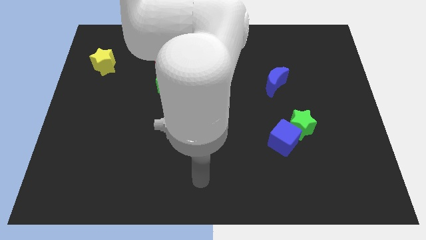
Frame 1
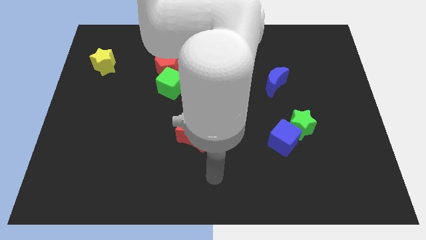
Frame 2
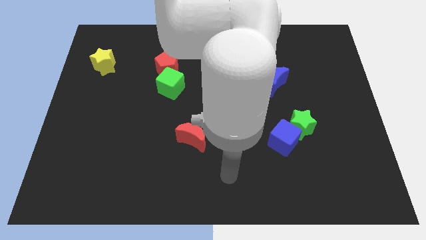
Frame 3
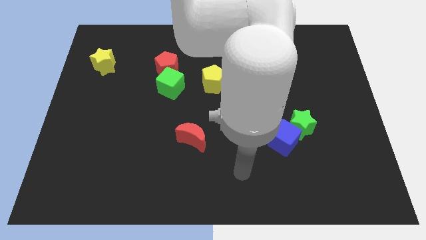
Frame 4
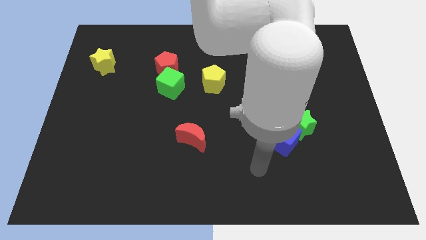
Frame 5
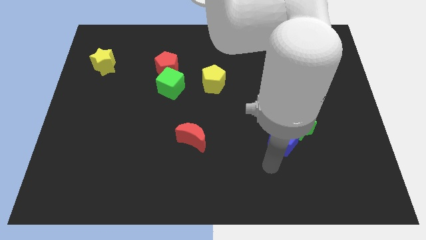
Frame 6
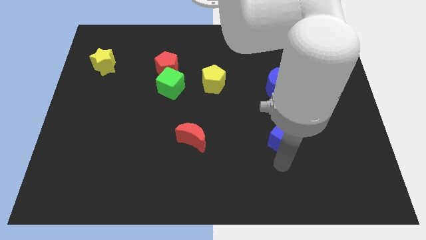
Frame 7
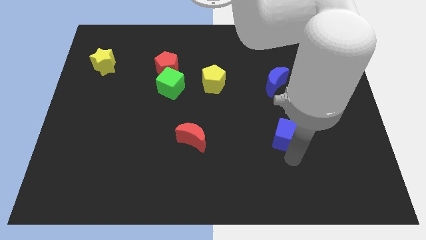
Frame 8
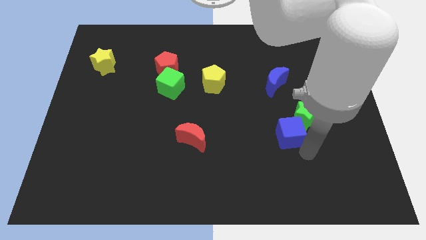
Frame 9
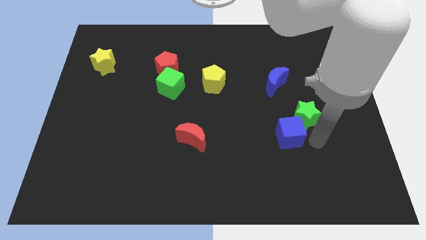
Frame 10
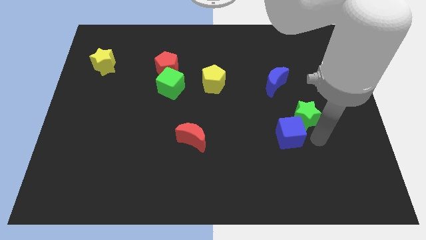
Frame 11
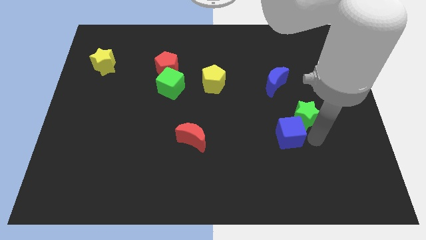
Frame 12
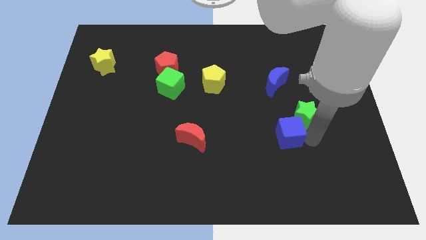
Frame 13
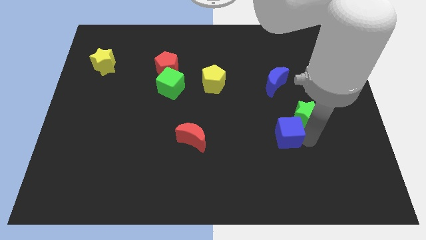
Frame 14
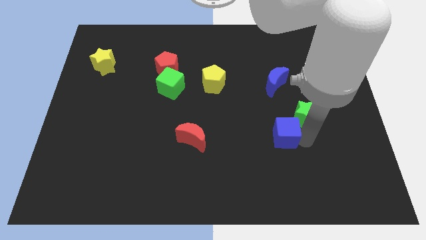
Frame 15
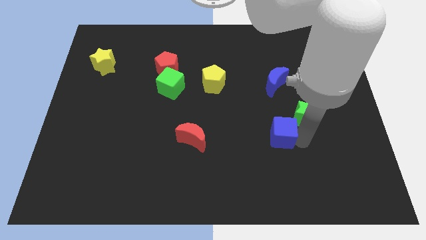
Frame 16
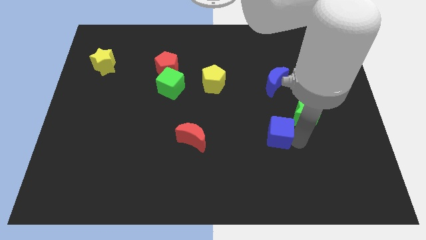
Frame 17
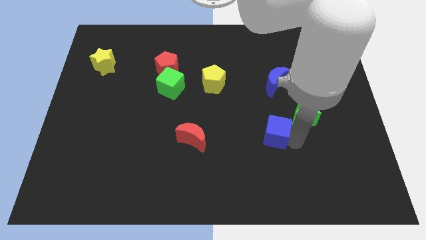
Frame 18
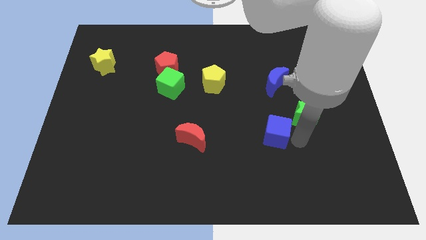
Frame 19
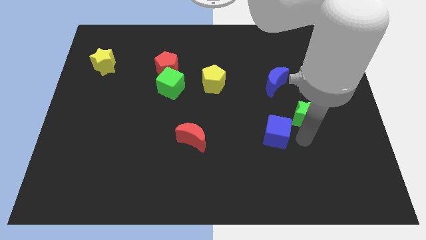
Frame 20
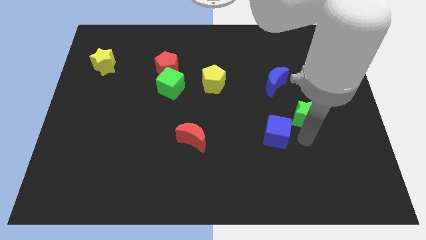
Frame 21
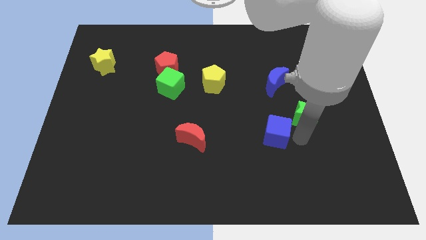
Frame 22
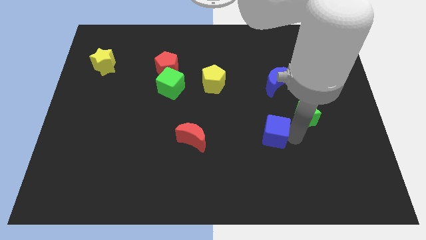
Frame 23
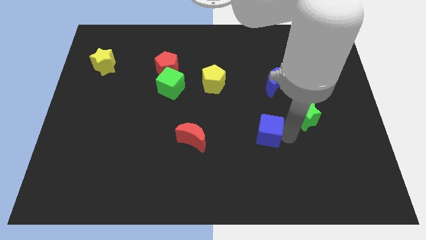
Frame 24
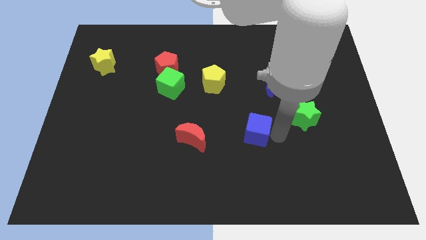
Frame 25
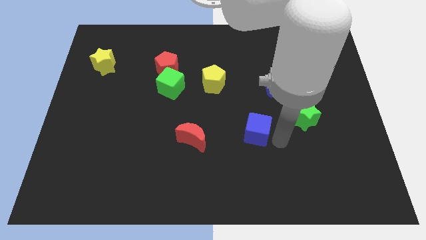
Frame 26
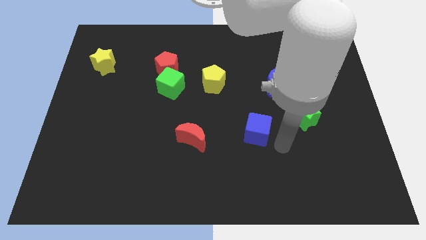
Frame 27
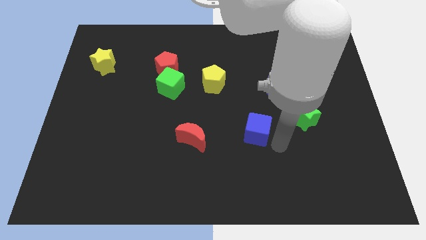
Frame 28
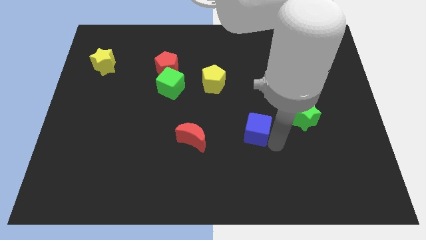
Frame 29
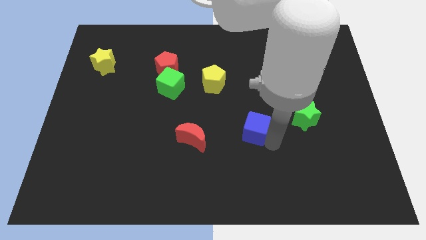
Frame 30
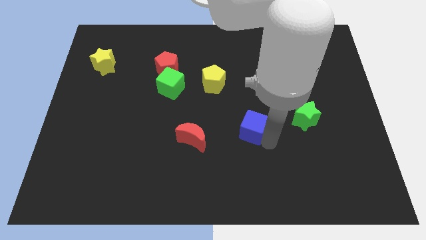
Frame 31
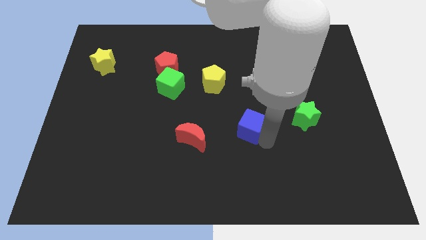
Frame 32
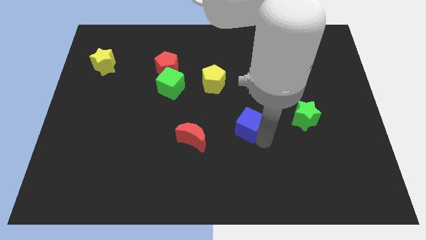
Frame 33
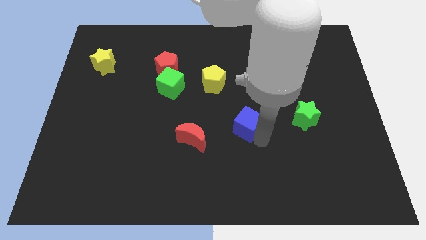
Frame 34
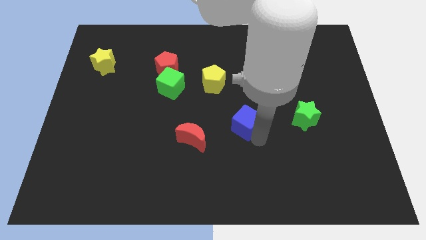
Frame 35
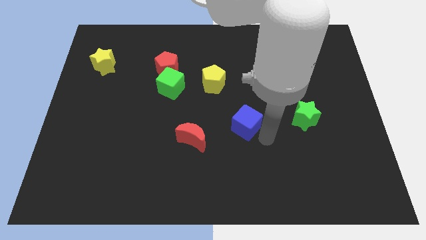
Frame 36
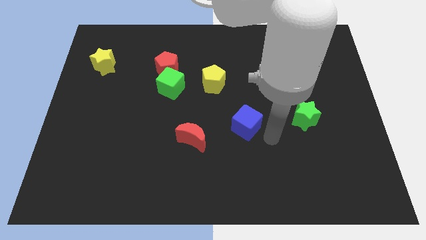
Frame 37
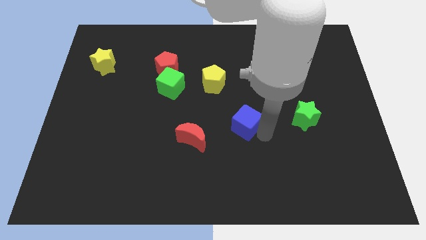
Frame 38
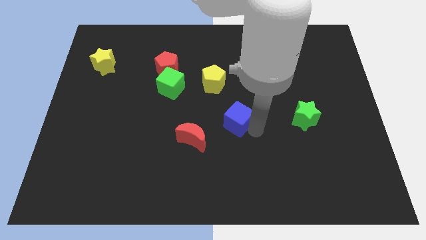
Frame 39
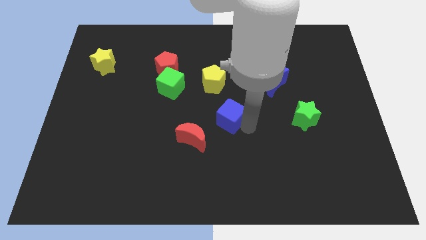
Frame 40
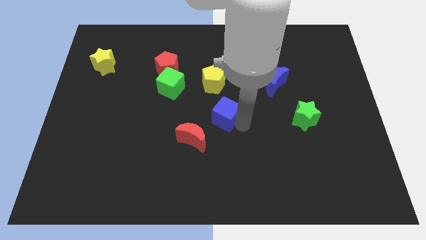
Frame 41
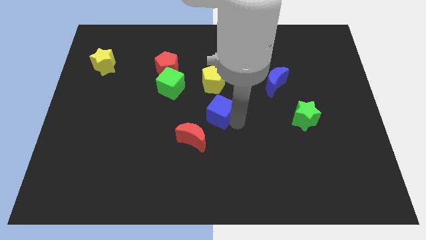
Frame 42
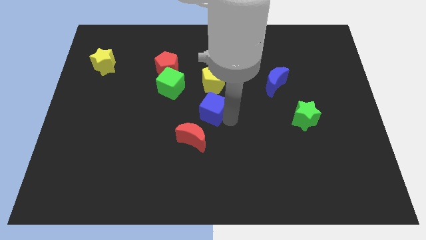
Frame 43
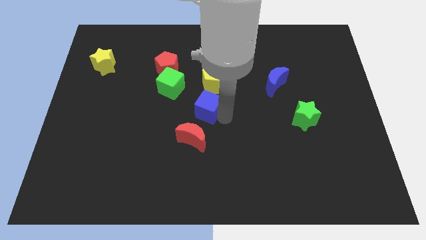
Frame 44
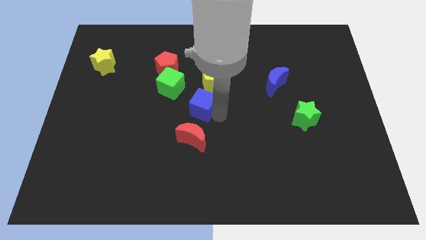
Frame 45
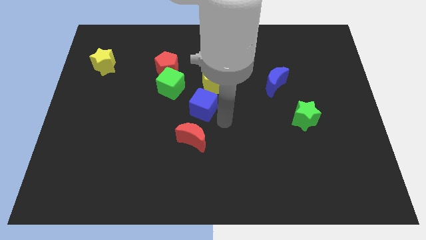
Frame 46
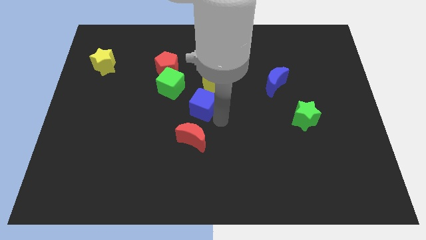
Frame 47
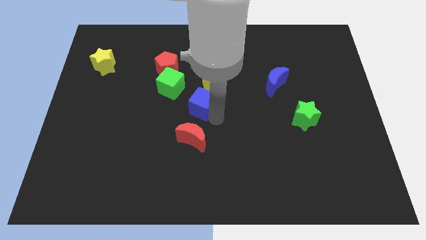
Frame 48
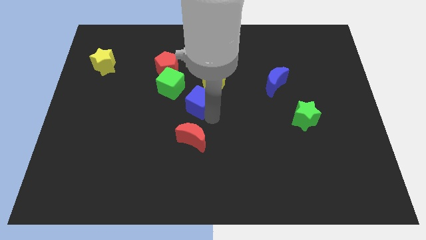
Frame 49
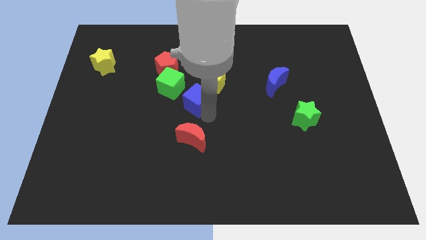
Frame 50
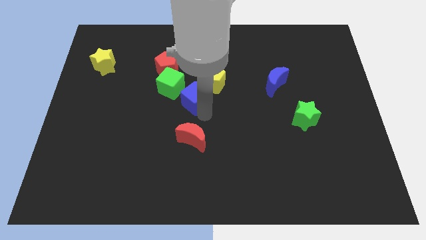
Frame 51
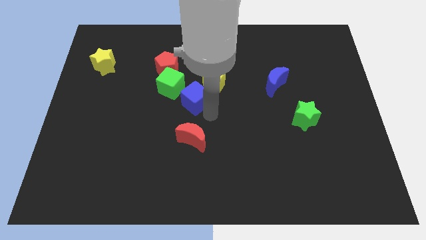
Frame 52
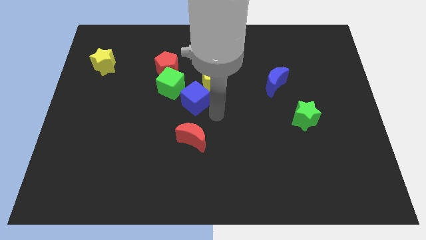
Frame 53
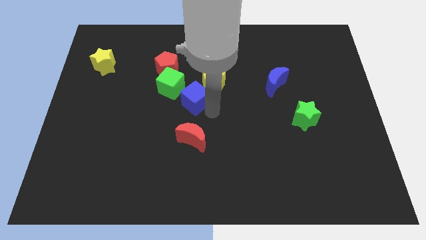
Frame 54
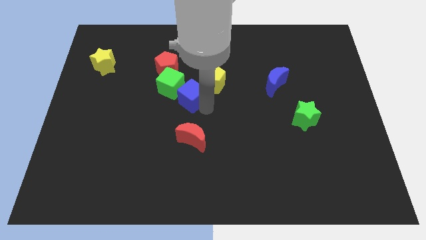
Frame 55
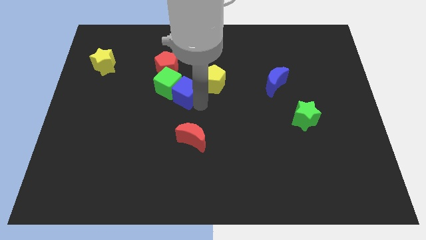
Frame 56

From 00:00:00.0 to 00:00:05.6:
slide the blue cube to the green cube
